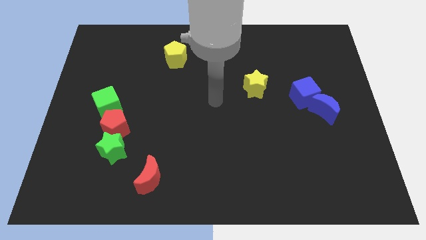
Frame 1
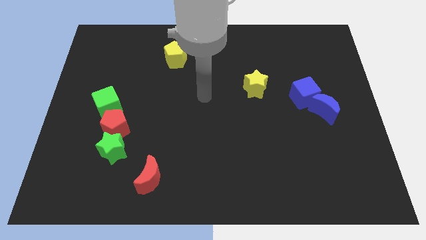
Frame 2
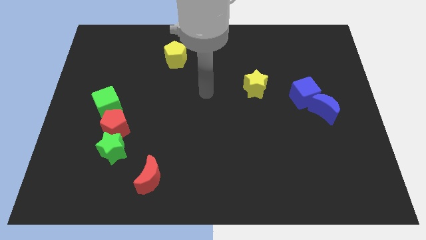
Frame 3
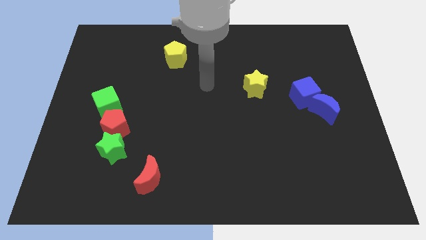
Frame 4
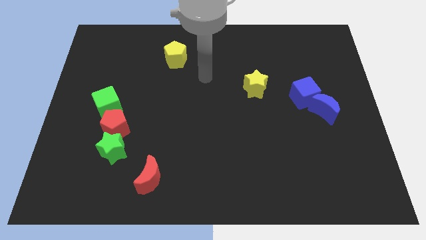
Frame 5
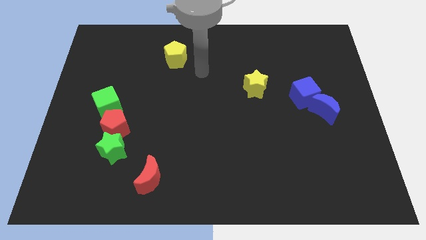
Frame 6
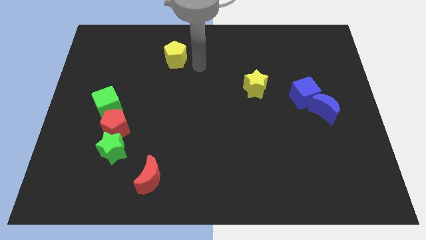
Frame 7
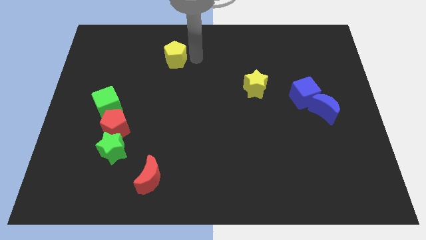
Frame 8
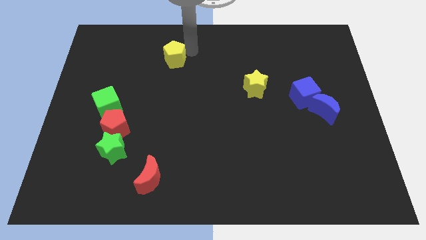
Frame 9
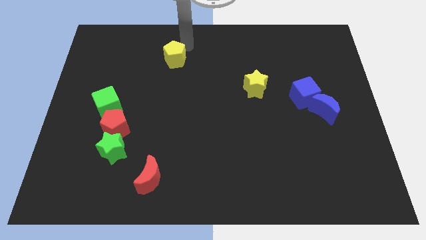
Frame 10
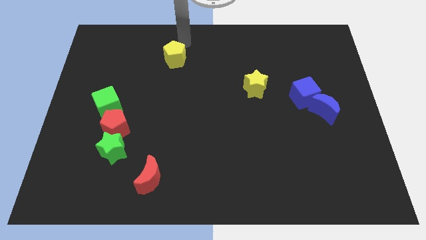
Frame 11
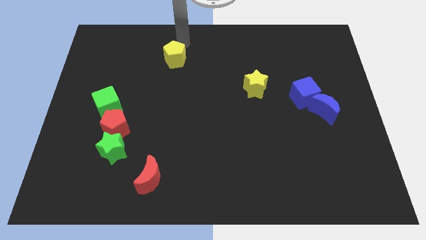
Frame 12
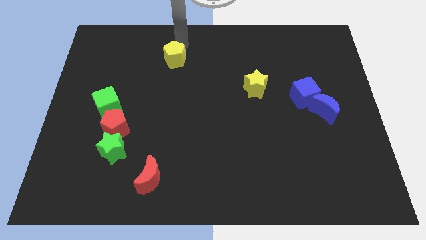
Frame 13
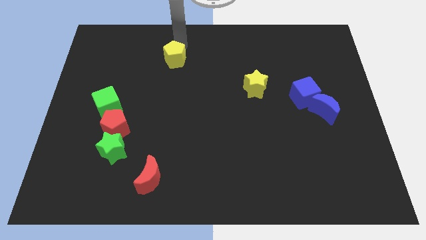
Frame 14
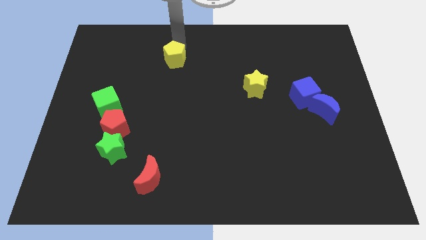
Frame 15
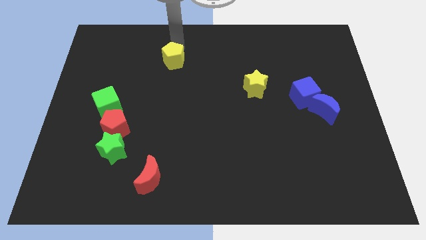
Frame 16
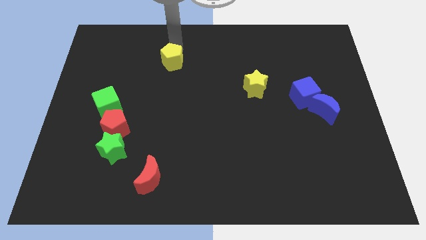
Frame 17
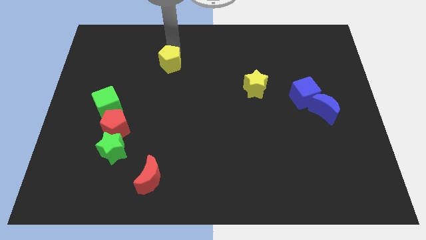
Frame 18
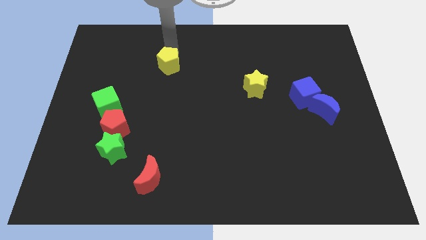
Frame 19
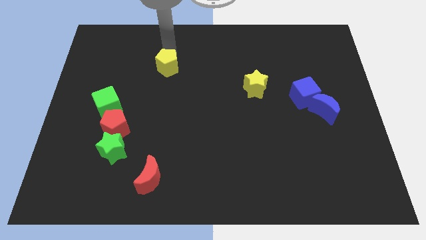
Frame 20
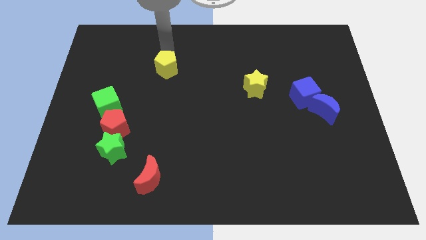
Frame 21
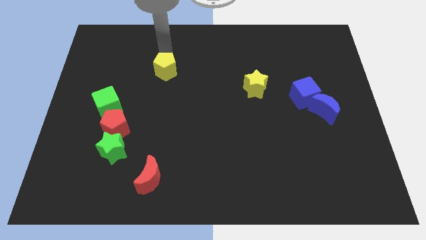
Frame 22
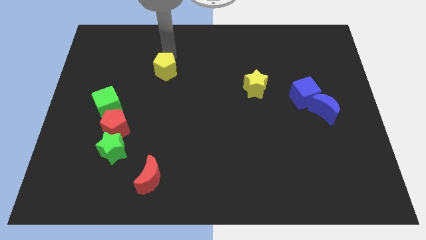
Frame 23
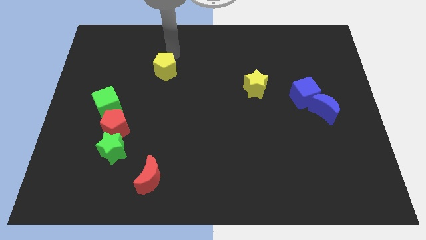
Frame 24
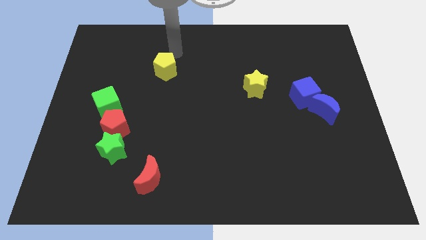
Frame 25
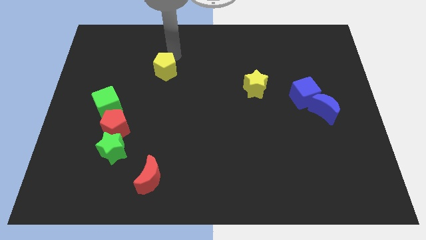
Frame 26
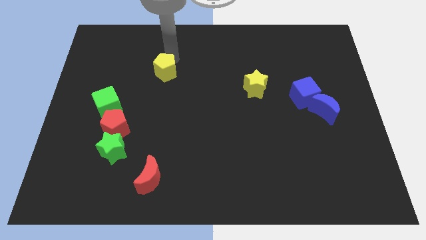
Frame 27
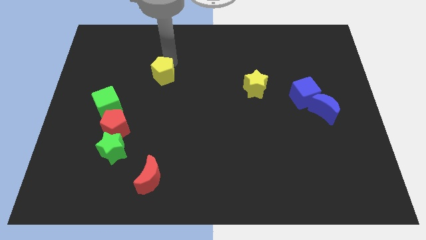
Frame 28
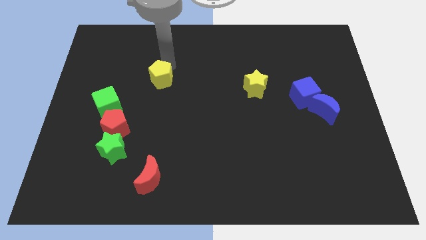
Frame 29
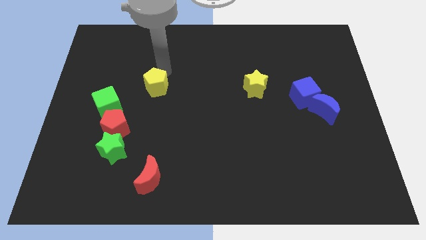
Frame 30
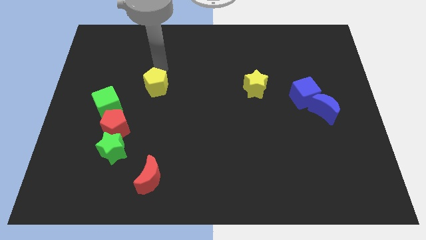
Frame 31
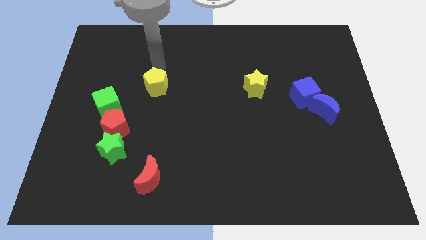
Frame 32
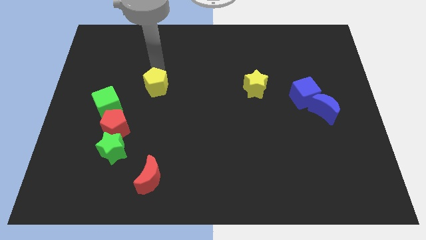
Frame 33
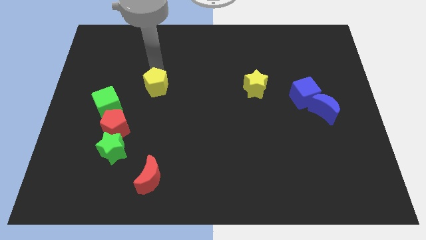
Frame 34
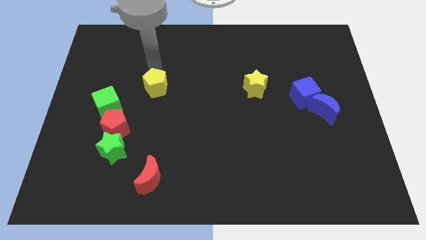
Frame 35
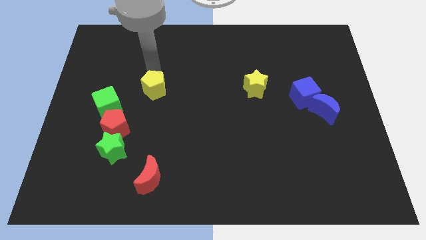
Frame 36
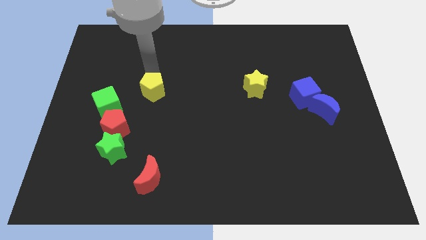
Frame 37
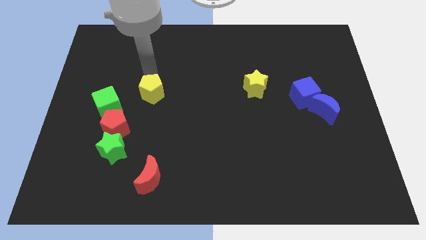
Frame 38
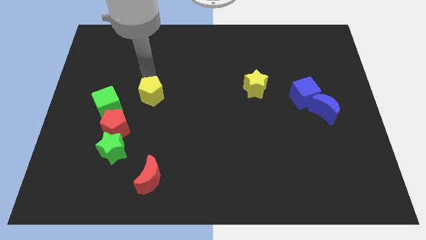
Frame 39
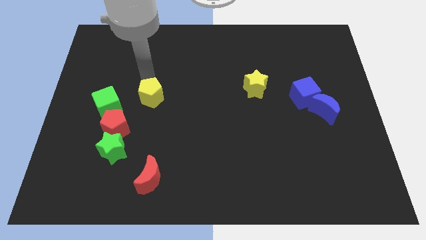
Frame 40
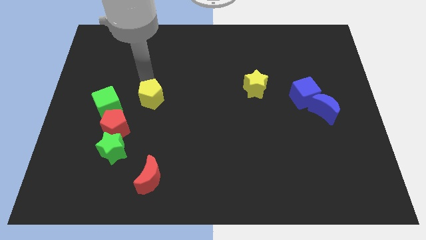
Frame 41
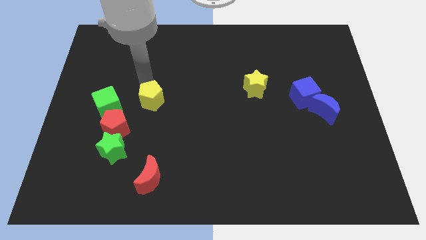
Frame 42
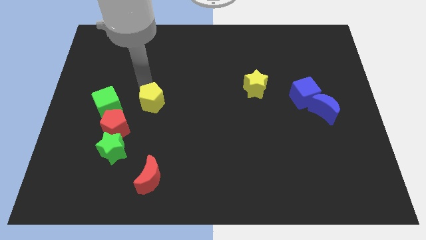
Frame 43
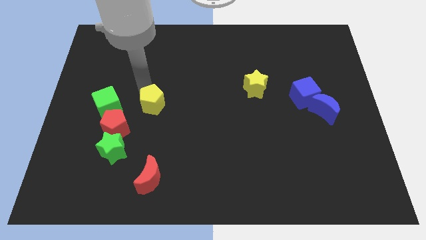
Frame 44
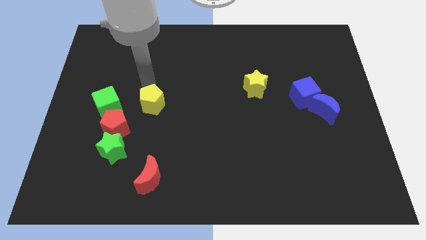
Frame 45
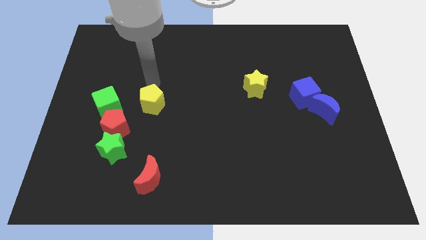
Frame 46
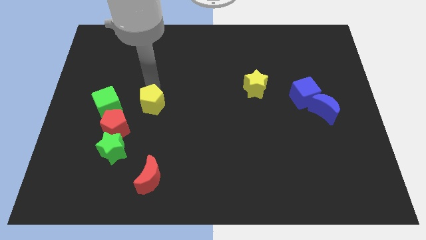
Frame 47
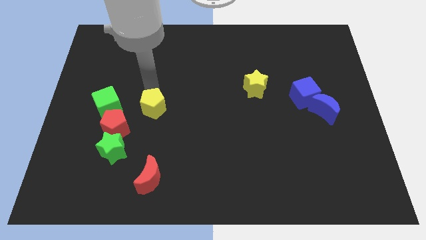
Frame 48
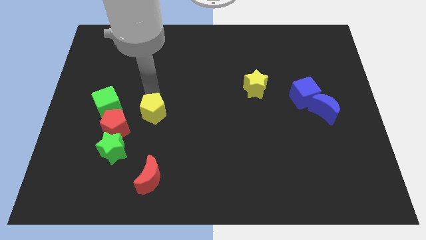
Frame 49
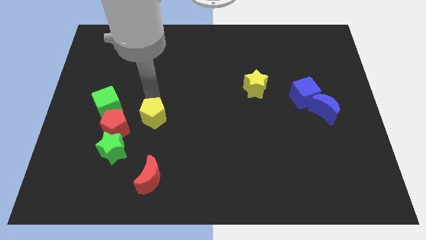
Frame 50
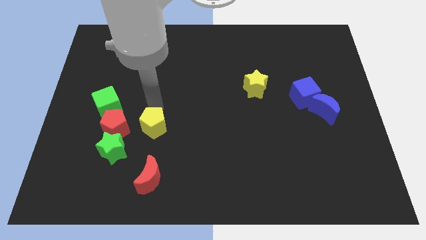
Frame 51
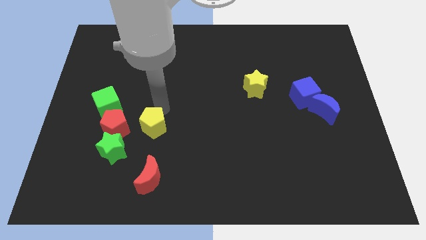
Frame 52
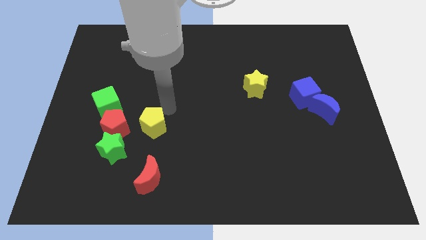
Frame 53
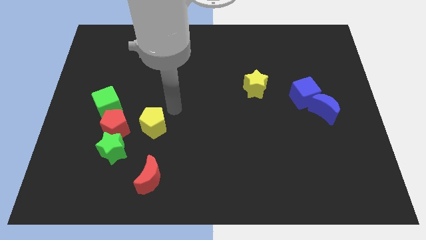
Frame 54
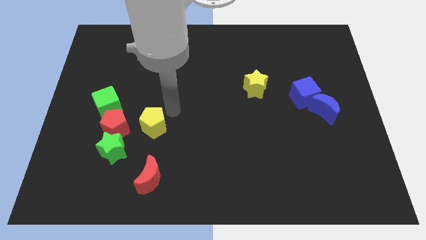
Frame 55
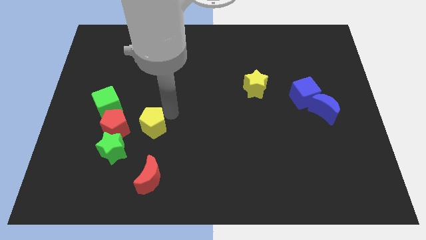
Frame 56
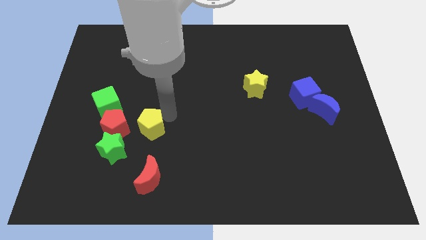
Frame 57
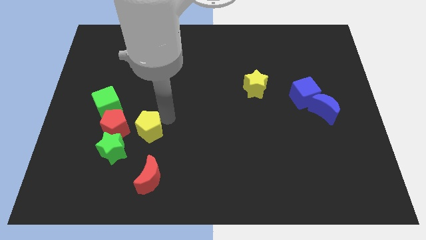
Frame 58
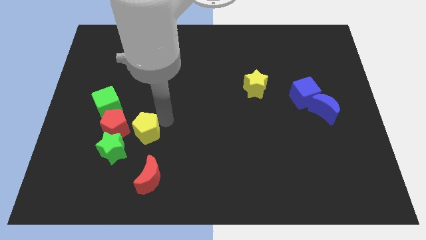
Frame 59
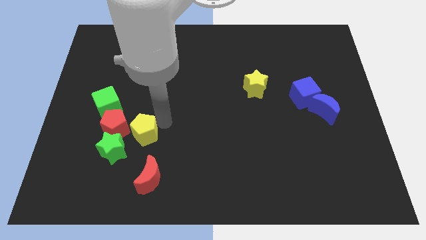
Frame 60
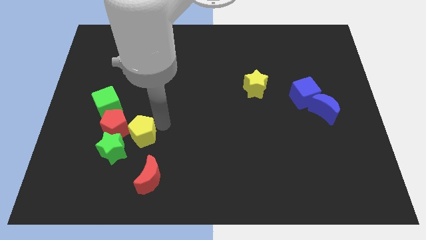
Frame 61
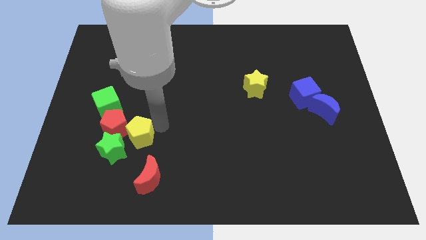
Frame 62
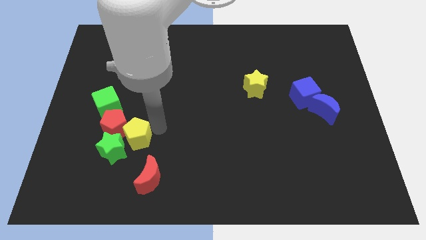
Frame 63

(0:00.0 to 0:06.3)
slide the yellow pentagon next to the green star

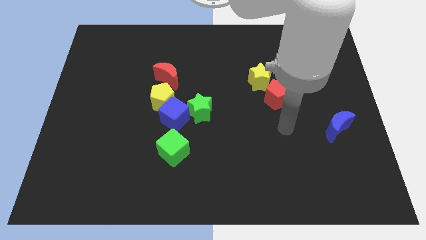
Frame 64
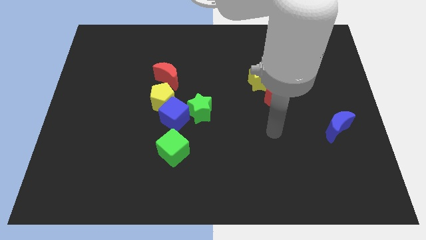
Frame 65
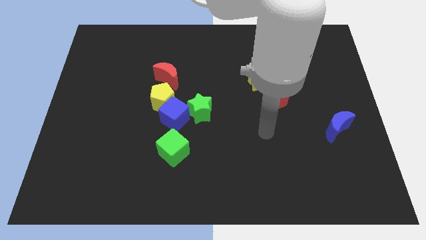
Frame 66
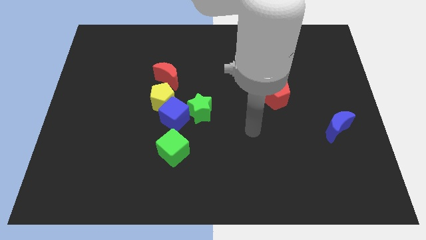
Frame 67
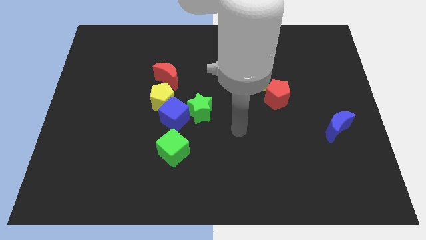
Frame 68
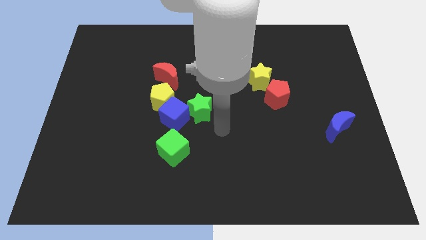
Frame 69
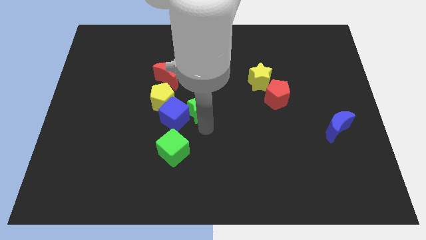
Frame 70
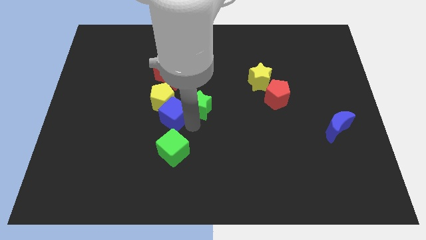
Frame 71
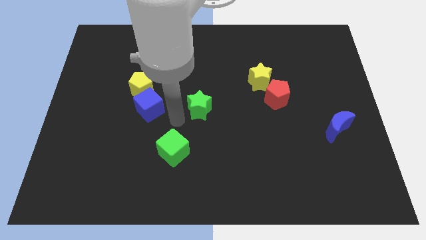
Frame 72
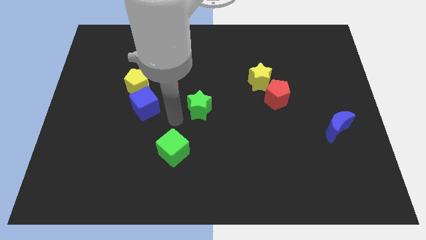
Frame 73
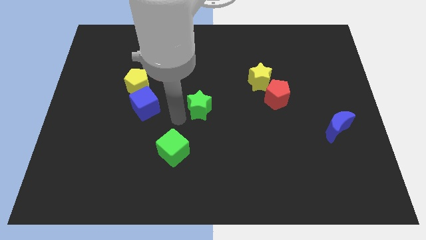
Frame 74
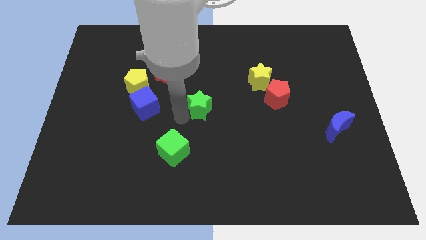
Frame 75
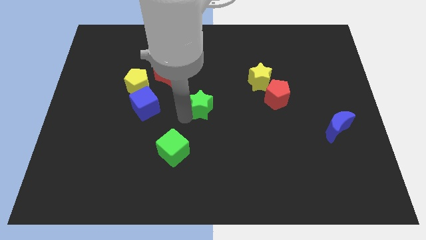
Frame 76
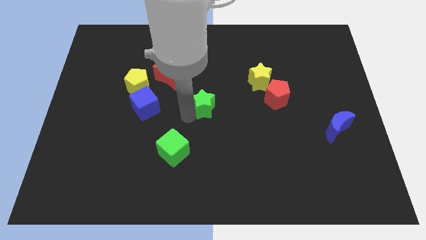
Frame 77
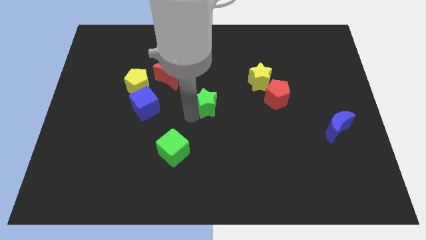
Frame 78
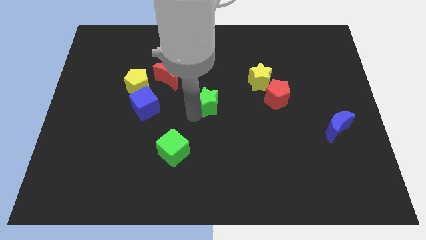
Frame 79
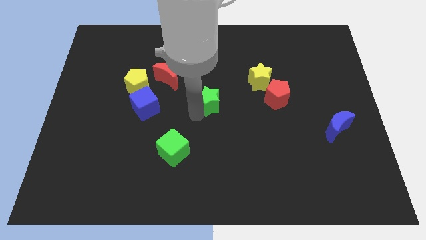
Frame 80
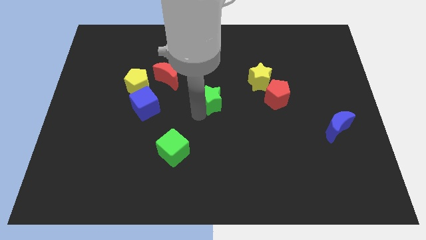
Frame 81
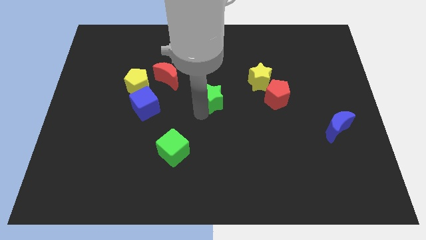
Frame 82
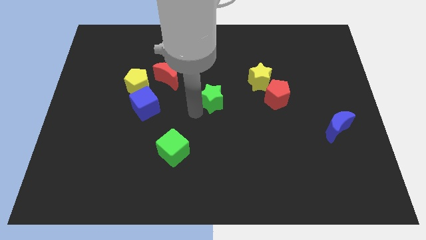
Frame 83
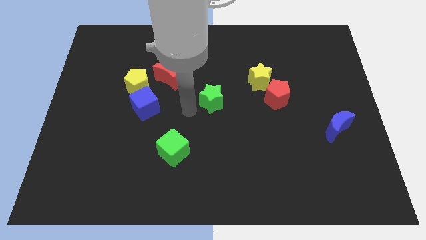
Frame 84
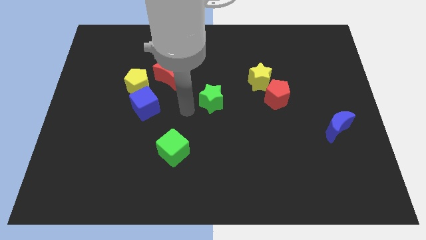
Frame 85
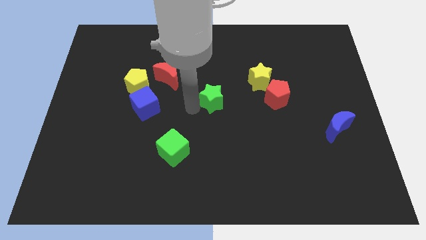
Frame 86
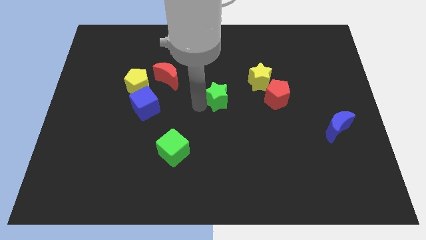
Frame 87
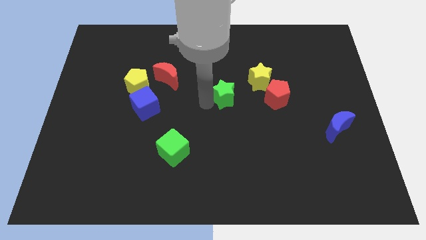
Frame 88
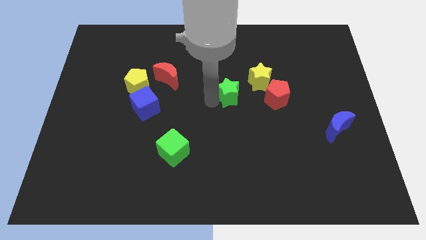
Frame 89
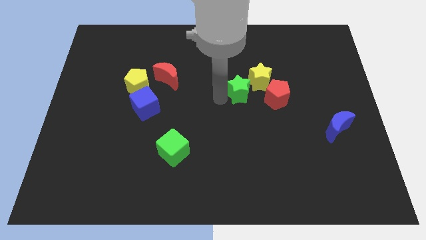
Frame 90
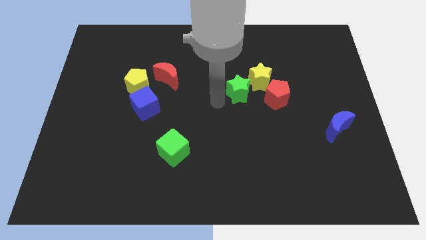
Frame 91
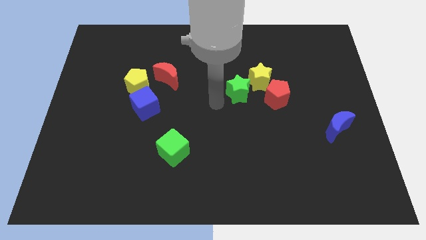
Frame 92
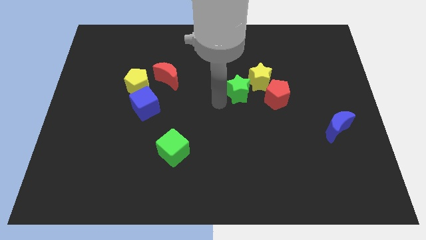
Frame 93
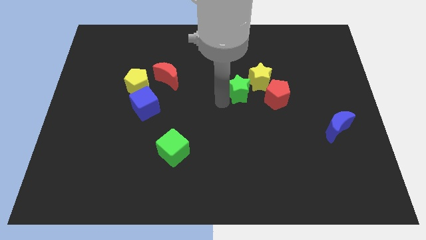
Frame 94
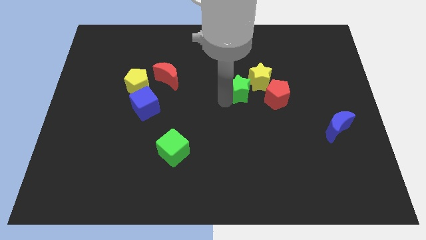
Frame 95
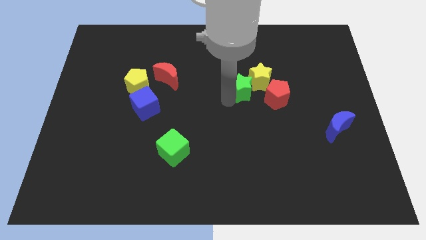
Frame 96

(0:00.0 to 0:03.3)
put the green star to the yellow star
